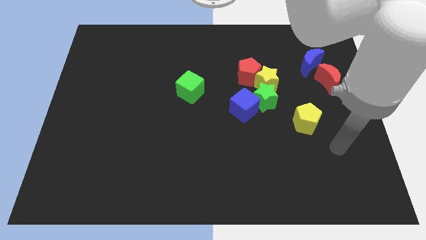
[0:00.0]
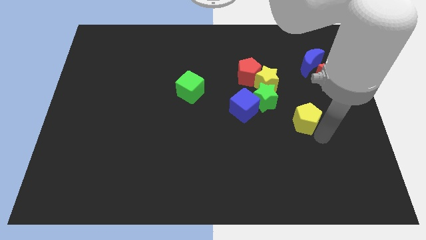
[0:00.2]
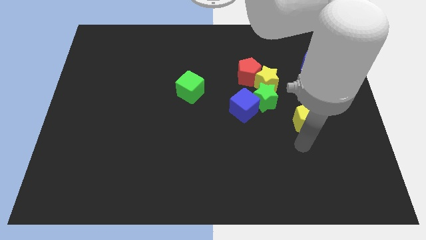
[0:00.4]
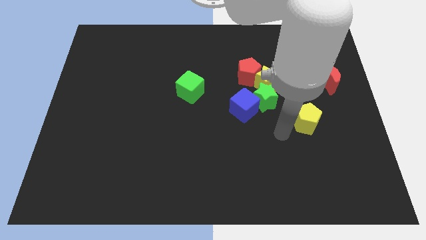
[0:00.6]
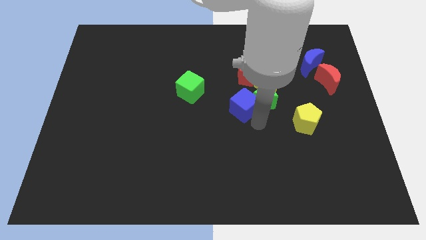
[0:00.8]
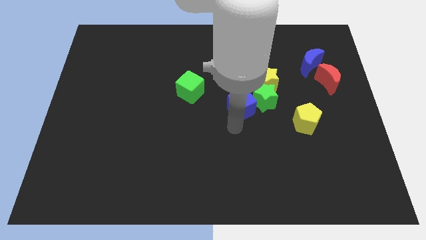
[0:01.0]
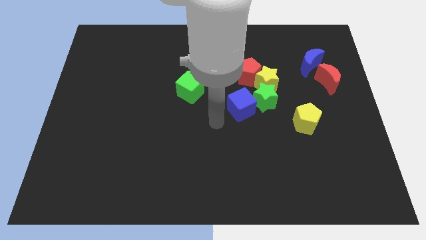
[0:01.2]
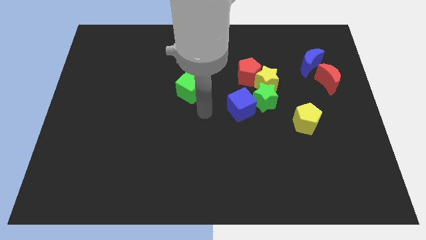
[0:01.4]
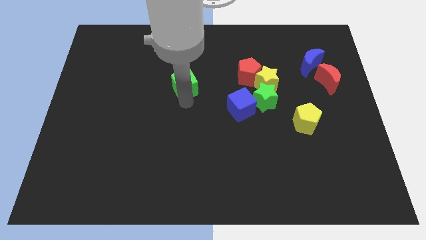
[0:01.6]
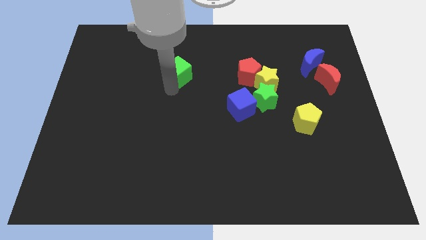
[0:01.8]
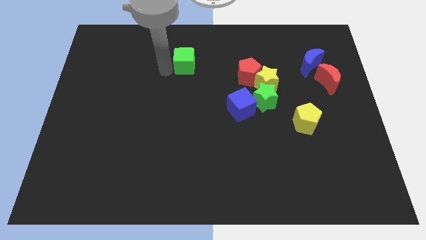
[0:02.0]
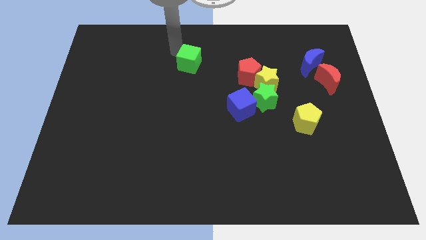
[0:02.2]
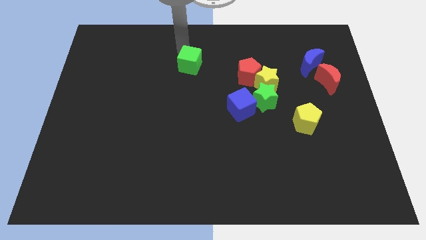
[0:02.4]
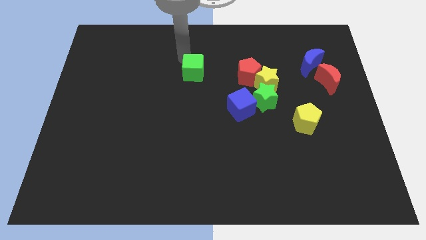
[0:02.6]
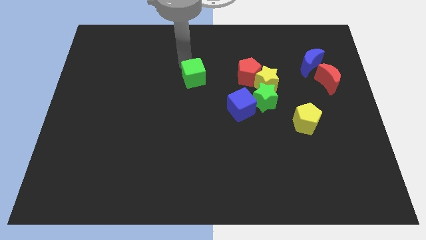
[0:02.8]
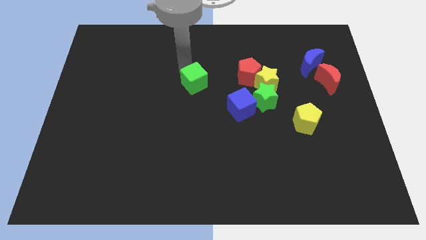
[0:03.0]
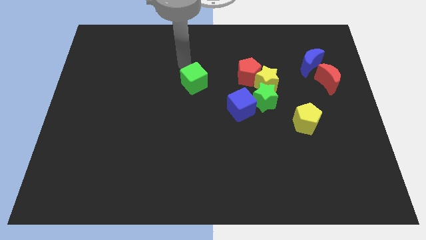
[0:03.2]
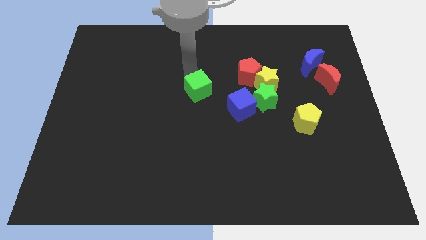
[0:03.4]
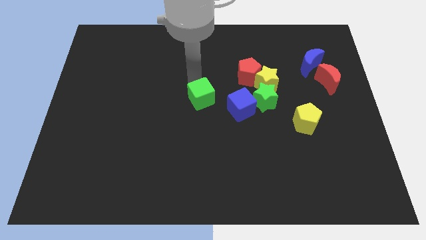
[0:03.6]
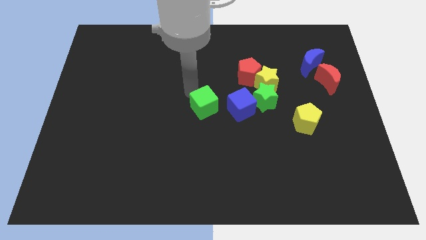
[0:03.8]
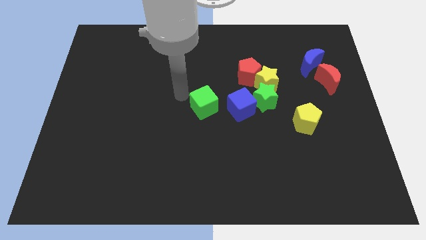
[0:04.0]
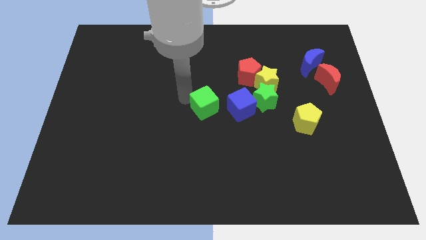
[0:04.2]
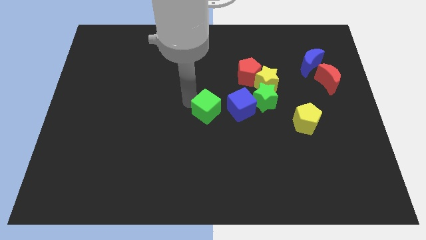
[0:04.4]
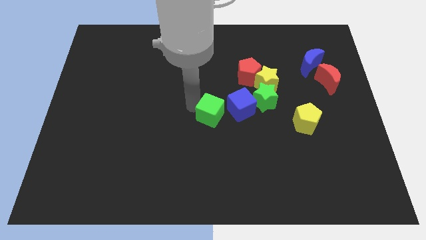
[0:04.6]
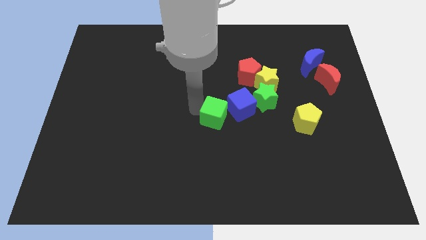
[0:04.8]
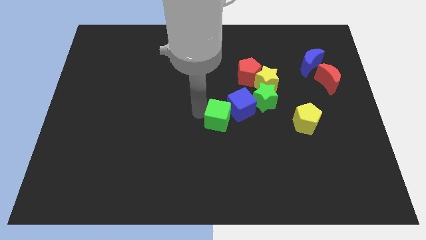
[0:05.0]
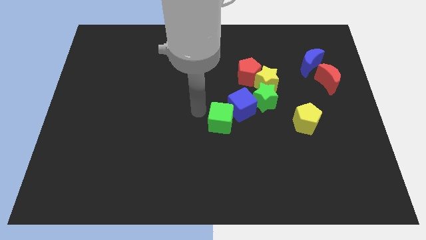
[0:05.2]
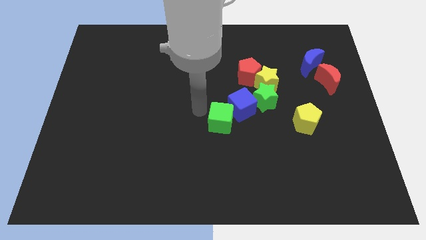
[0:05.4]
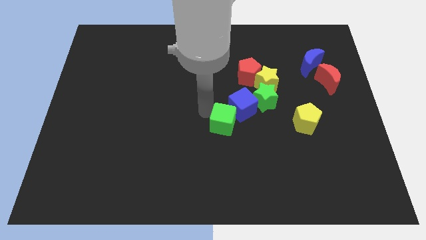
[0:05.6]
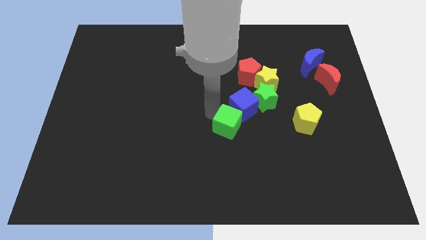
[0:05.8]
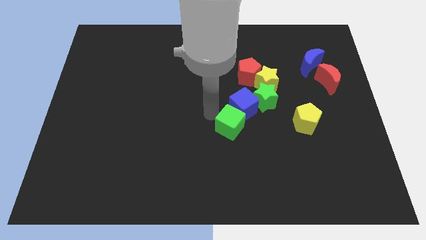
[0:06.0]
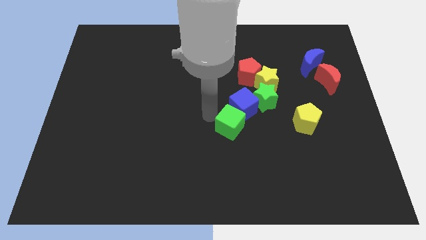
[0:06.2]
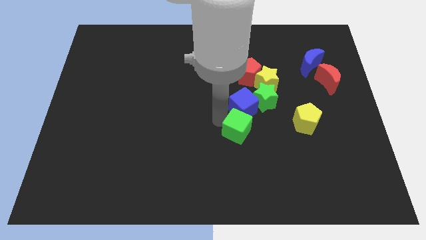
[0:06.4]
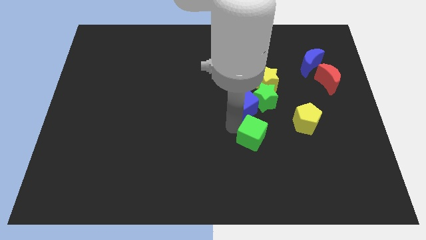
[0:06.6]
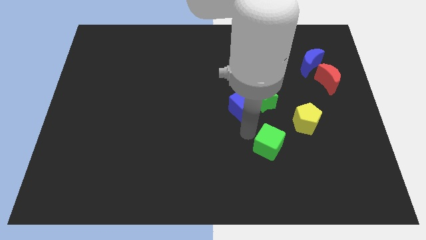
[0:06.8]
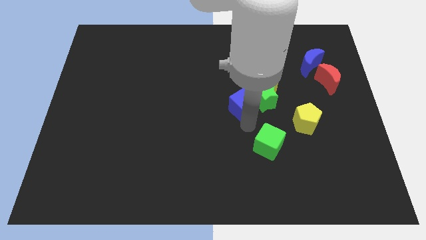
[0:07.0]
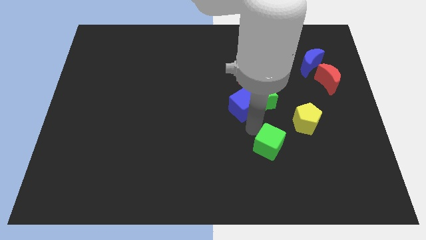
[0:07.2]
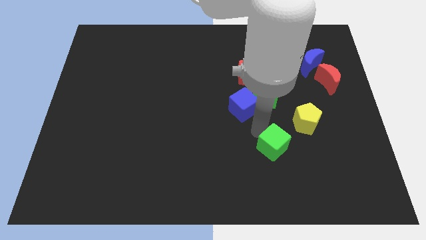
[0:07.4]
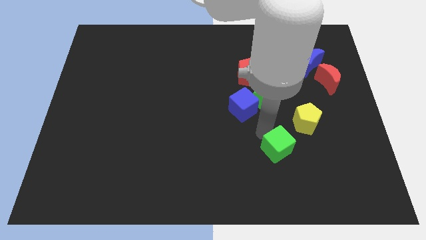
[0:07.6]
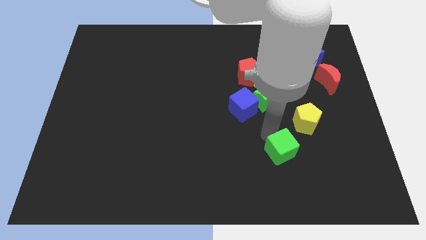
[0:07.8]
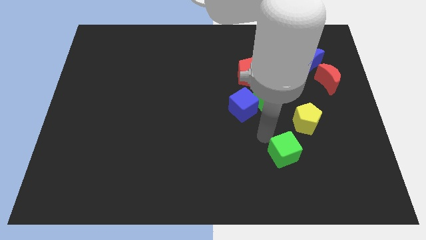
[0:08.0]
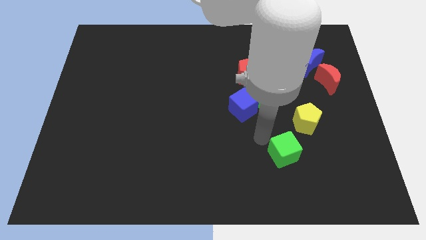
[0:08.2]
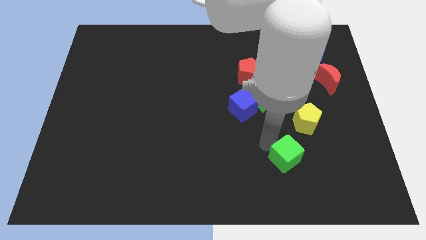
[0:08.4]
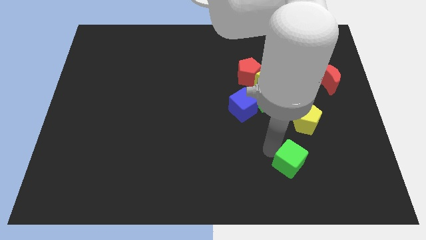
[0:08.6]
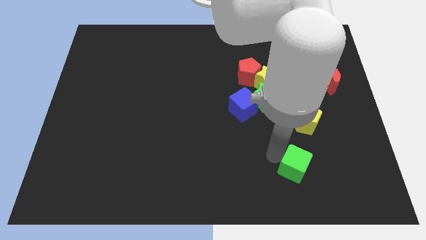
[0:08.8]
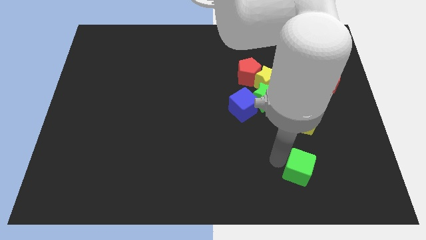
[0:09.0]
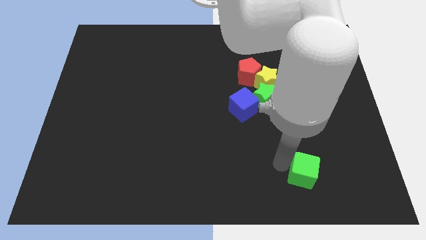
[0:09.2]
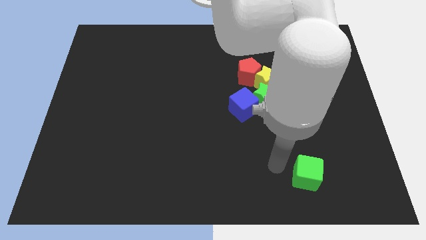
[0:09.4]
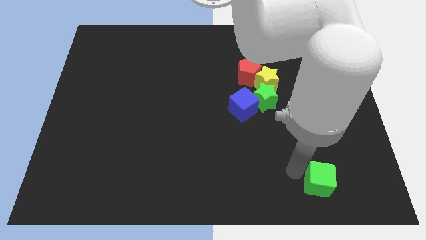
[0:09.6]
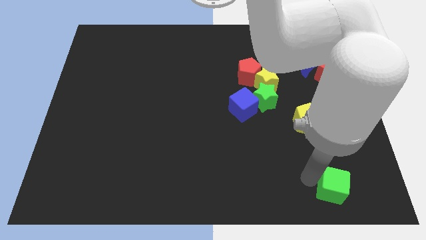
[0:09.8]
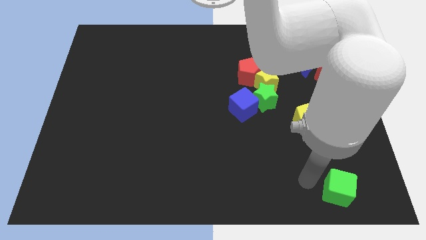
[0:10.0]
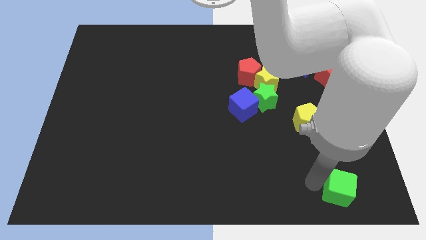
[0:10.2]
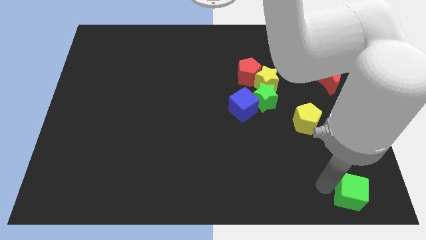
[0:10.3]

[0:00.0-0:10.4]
slide the green cube to the bottom right corner

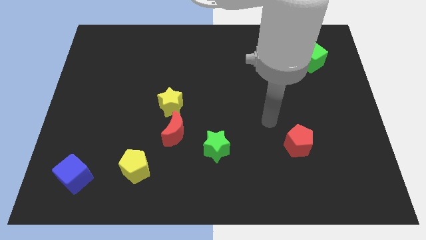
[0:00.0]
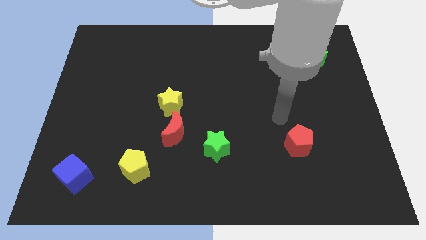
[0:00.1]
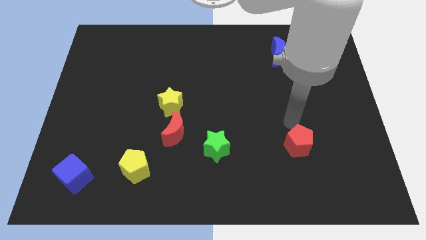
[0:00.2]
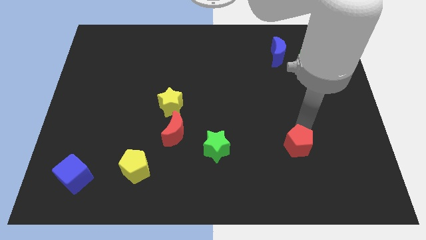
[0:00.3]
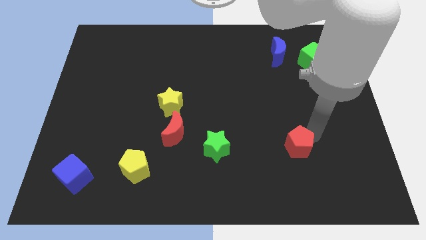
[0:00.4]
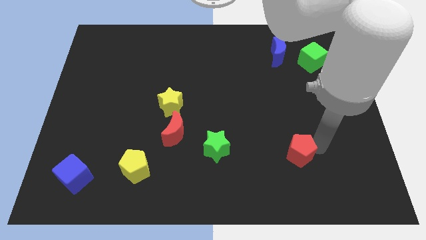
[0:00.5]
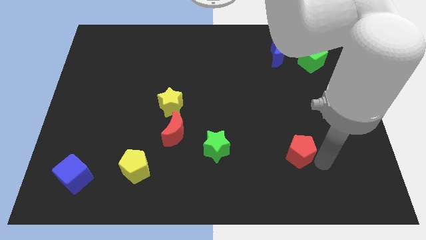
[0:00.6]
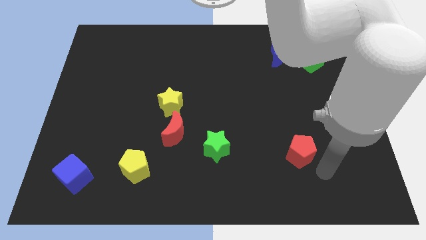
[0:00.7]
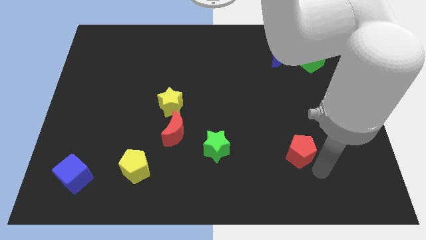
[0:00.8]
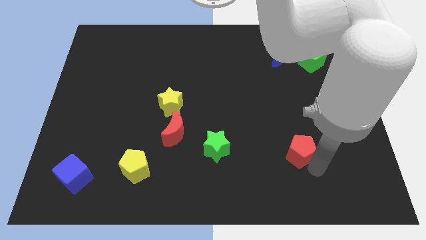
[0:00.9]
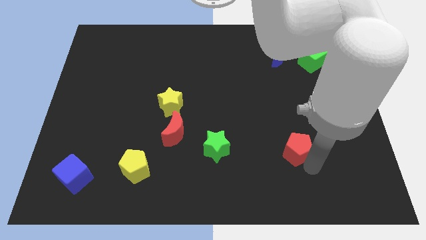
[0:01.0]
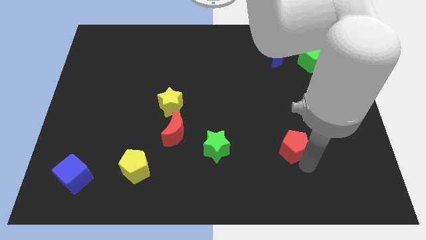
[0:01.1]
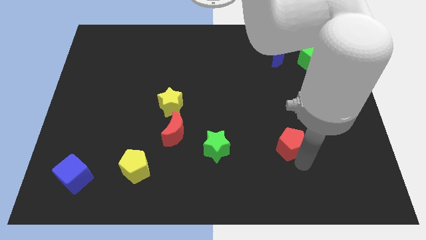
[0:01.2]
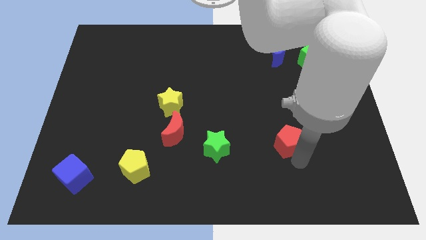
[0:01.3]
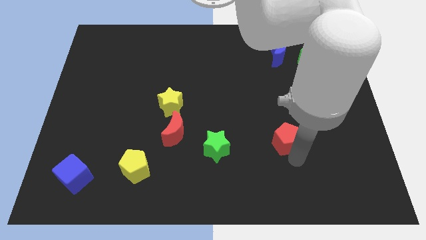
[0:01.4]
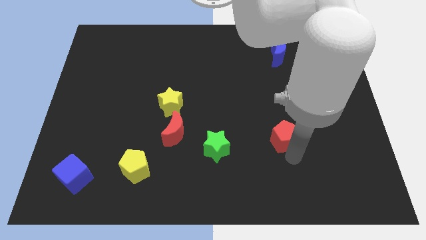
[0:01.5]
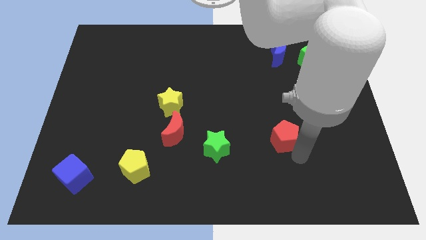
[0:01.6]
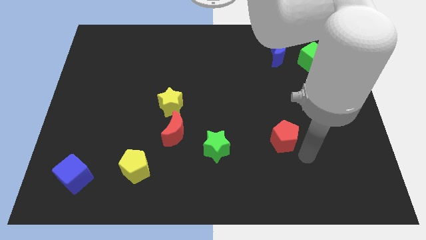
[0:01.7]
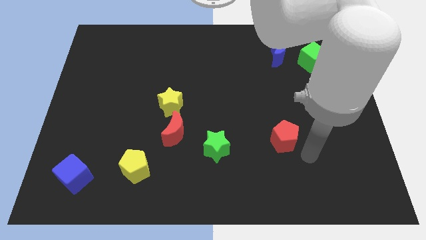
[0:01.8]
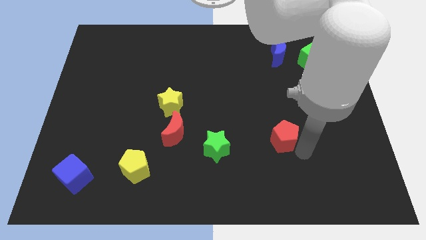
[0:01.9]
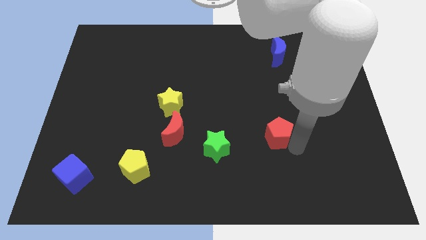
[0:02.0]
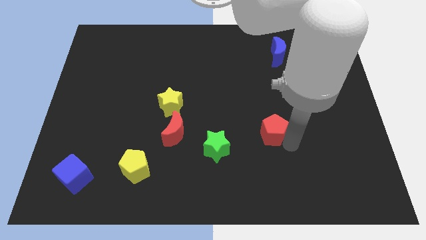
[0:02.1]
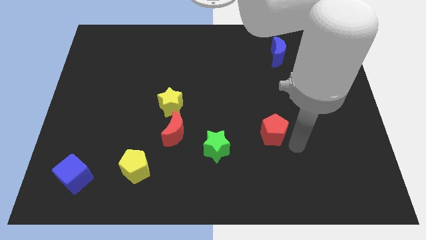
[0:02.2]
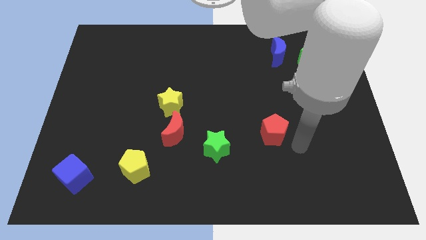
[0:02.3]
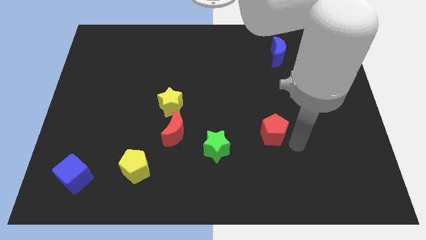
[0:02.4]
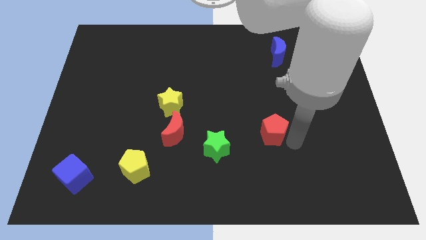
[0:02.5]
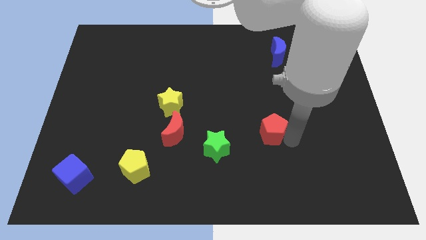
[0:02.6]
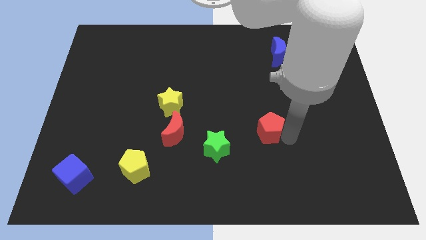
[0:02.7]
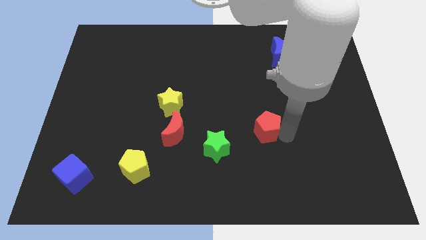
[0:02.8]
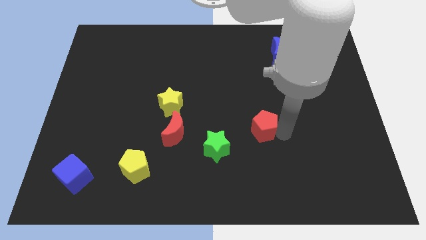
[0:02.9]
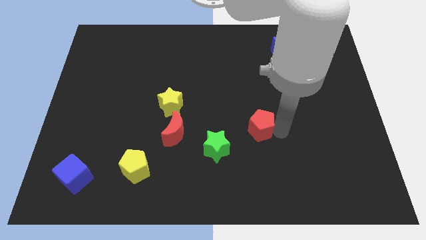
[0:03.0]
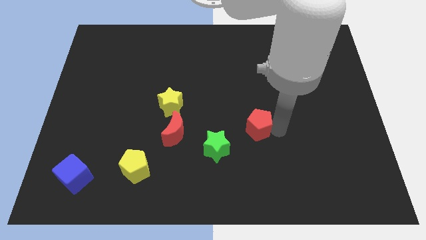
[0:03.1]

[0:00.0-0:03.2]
move the red pentagon to the middle
